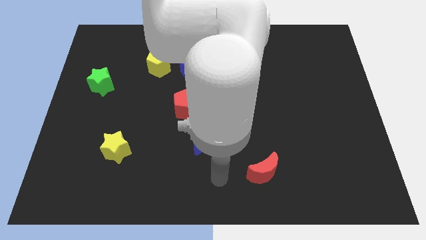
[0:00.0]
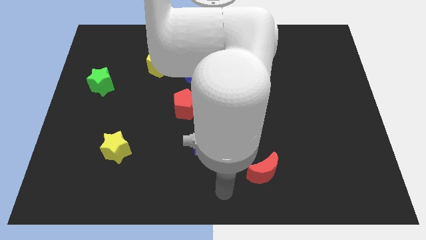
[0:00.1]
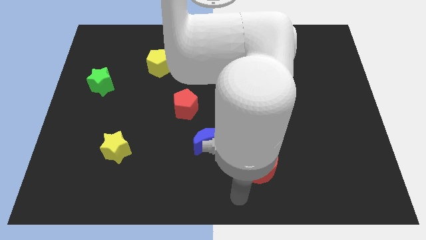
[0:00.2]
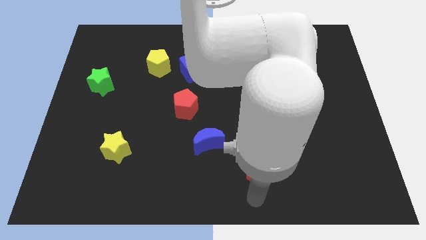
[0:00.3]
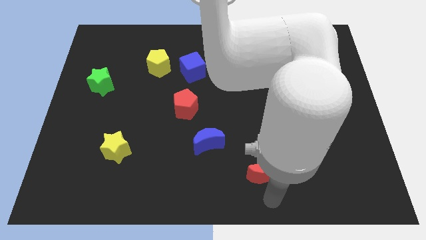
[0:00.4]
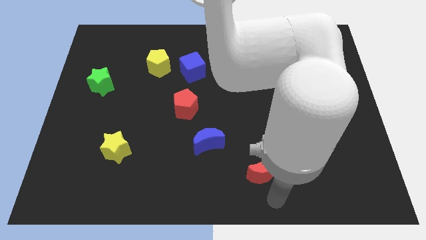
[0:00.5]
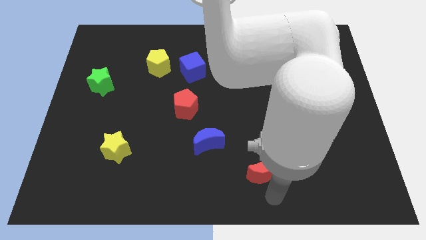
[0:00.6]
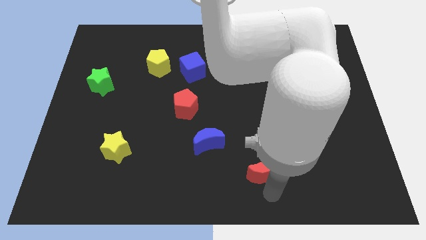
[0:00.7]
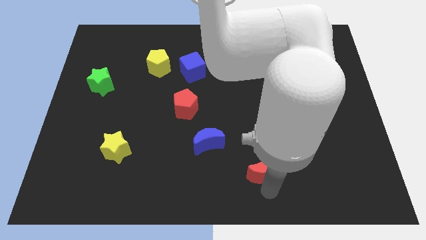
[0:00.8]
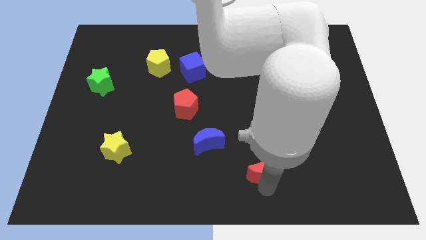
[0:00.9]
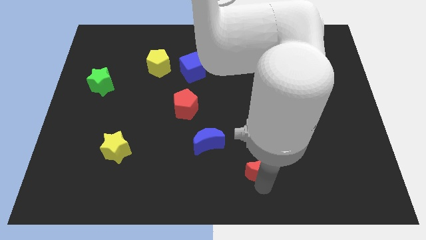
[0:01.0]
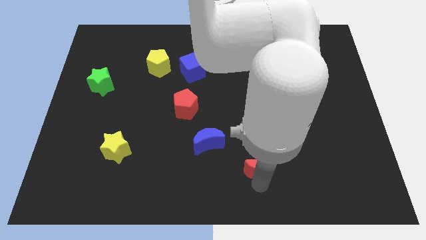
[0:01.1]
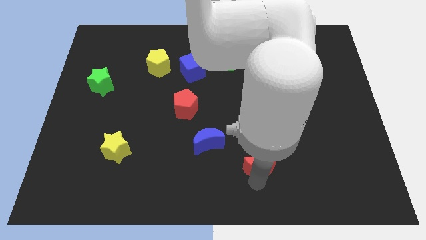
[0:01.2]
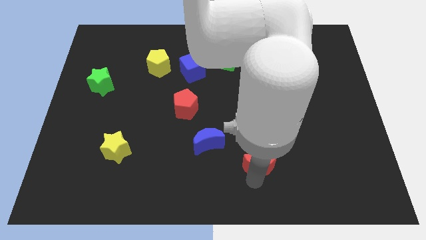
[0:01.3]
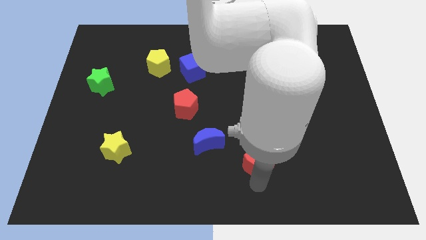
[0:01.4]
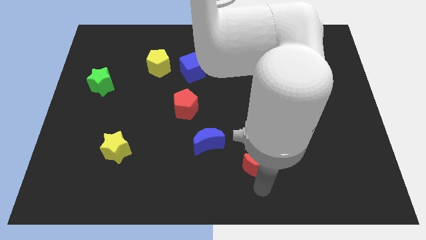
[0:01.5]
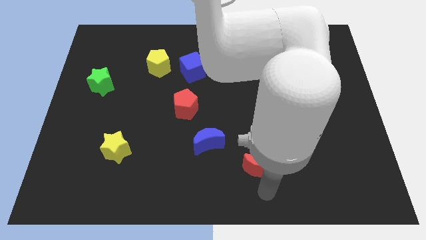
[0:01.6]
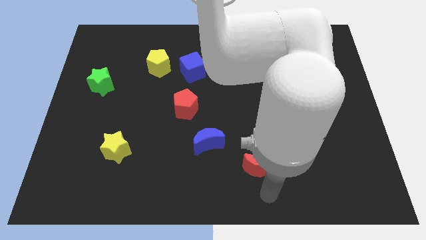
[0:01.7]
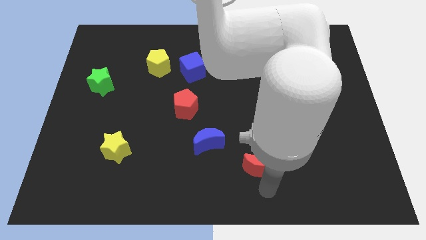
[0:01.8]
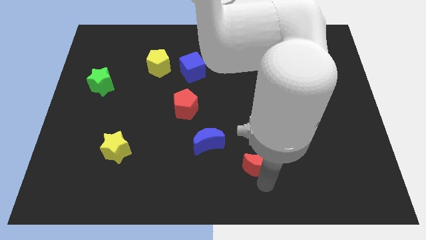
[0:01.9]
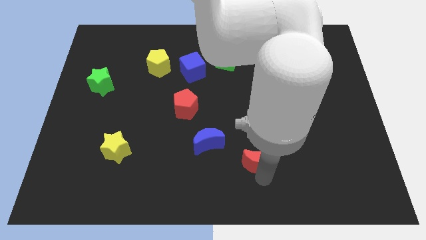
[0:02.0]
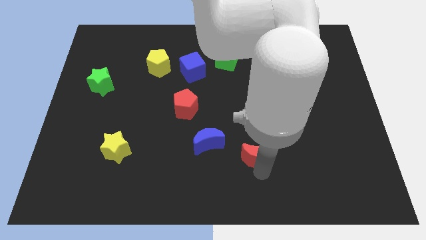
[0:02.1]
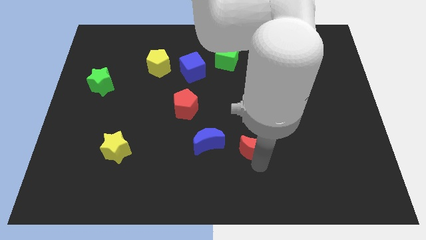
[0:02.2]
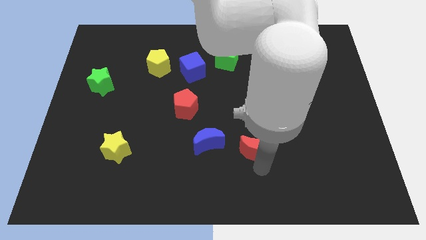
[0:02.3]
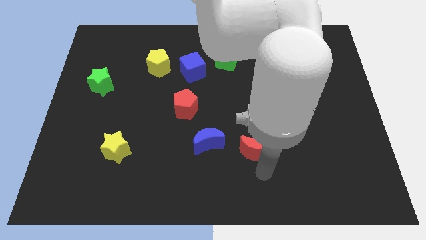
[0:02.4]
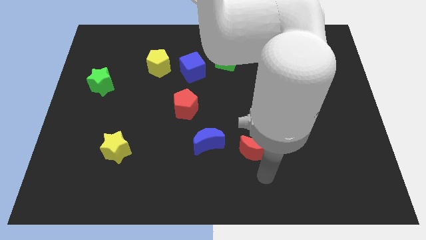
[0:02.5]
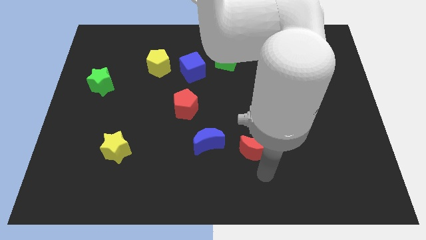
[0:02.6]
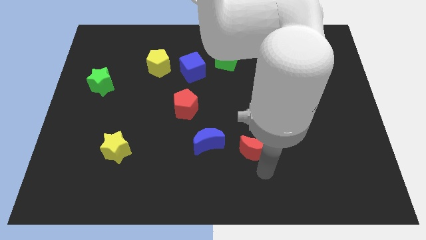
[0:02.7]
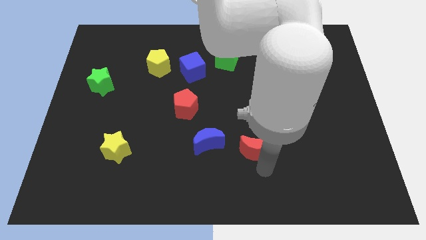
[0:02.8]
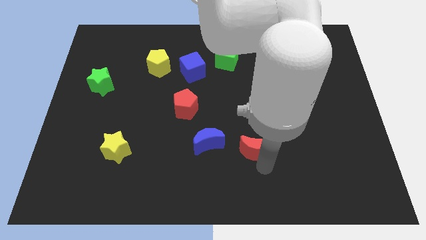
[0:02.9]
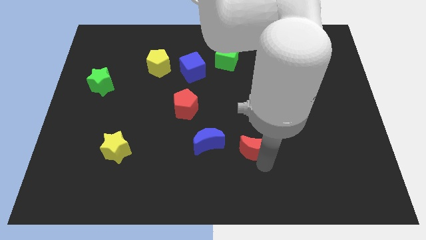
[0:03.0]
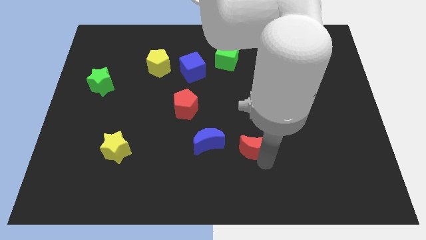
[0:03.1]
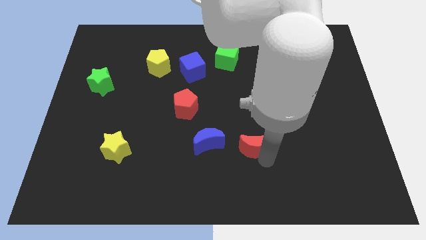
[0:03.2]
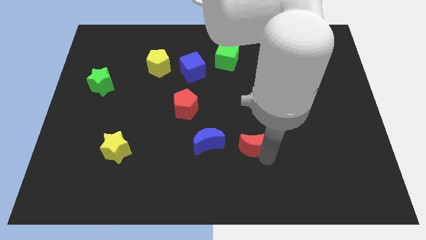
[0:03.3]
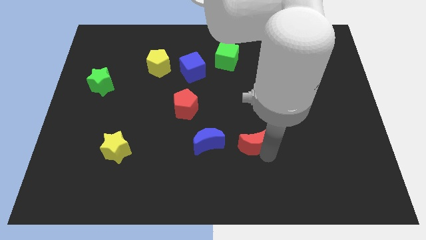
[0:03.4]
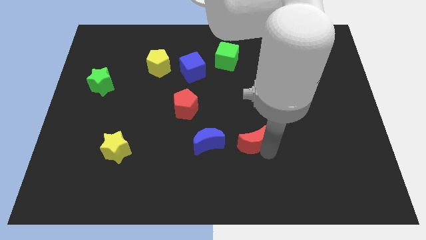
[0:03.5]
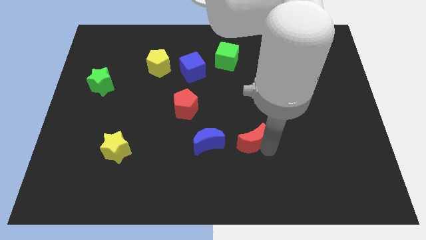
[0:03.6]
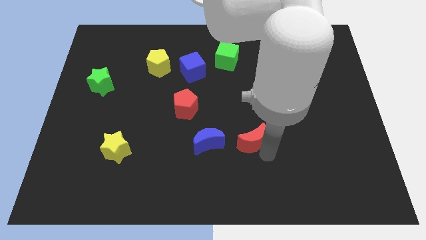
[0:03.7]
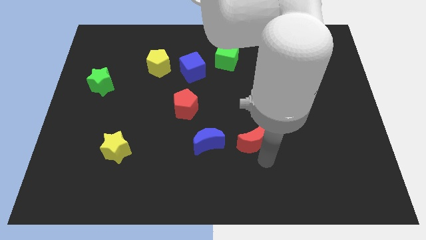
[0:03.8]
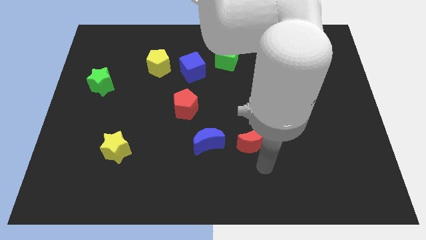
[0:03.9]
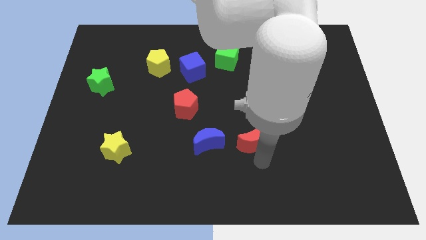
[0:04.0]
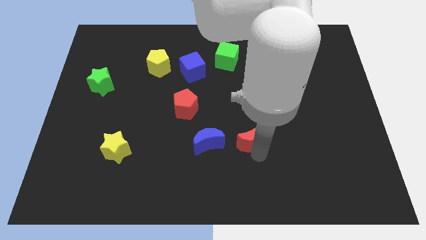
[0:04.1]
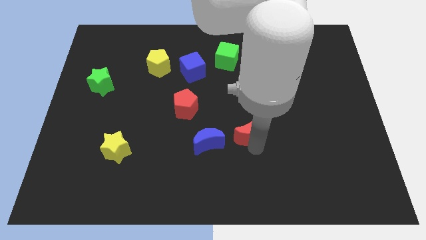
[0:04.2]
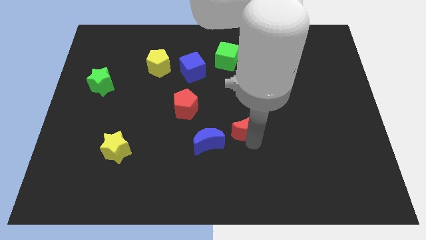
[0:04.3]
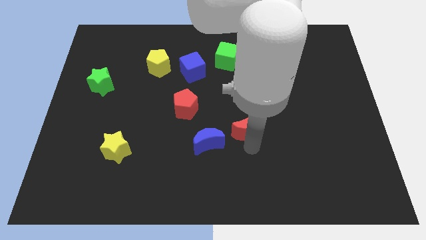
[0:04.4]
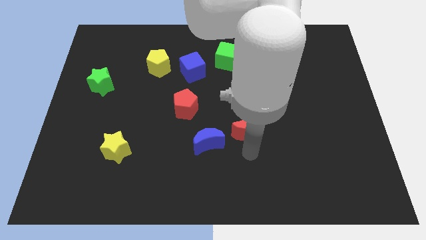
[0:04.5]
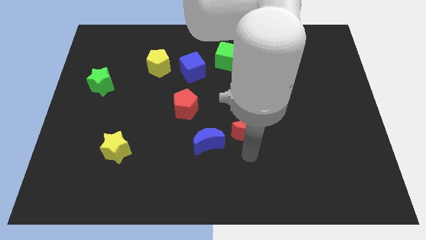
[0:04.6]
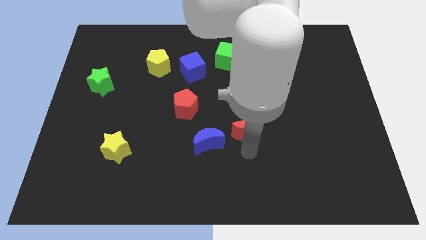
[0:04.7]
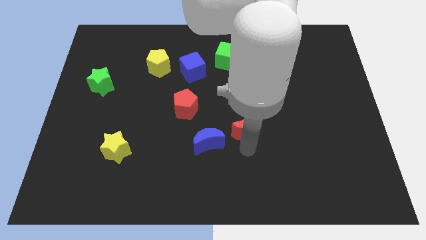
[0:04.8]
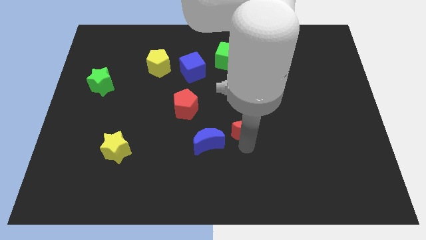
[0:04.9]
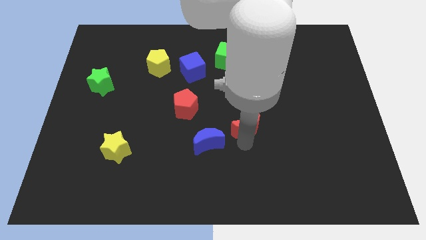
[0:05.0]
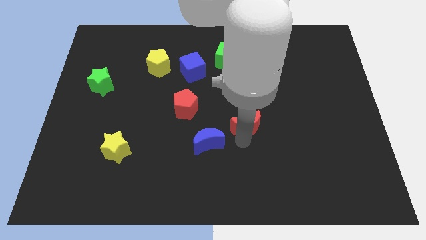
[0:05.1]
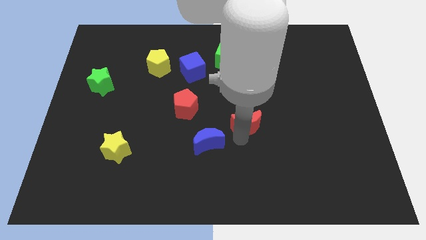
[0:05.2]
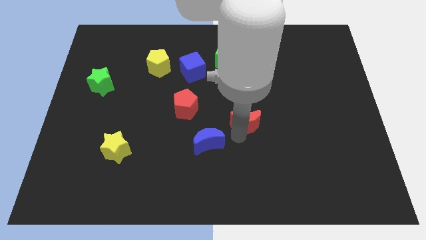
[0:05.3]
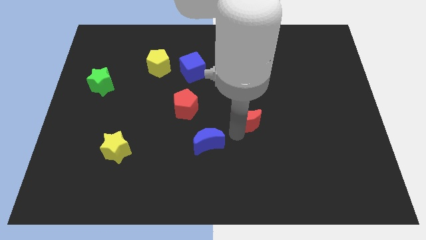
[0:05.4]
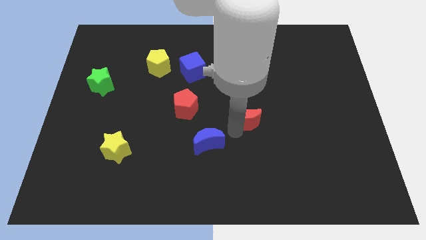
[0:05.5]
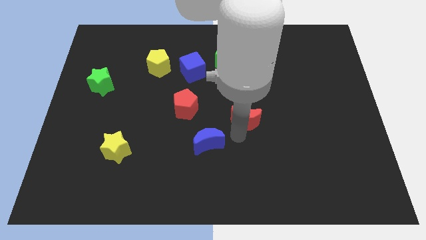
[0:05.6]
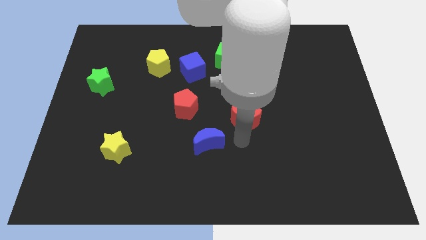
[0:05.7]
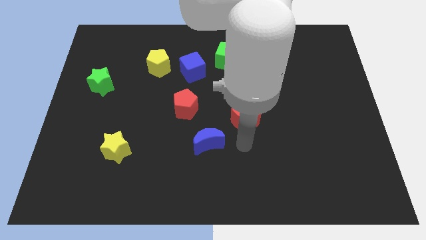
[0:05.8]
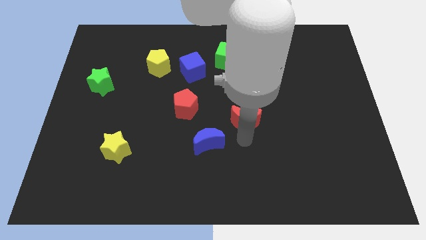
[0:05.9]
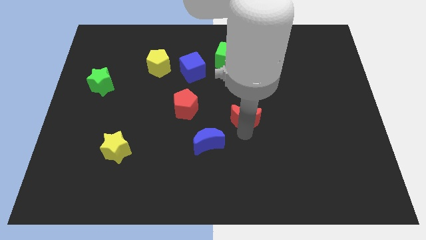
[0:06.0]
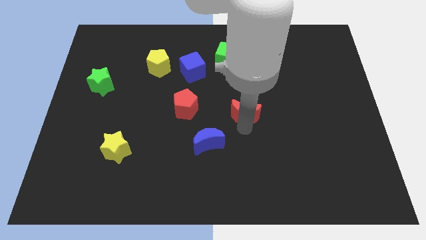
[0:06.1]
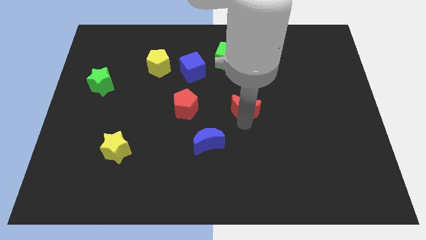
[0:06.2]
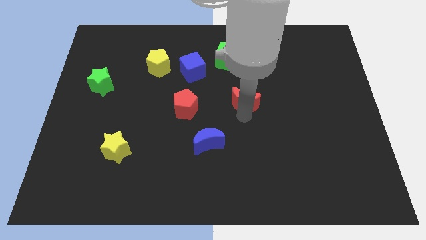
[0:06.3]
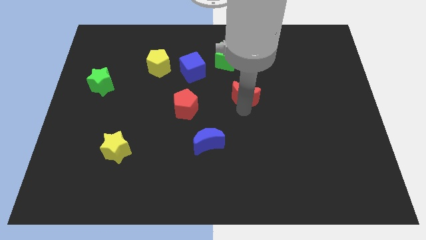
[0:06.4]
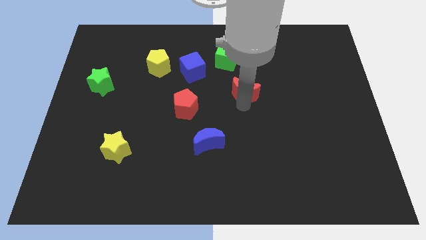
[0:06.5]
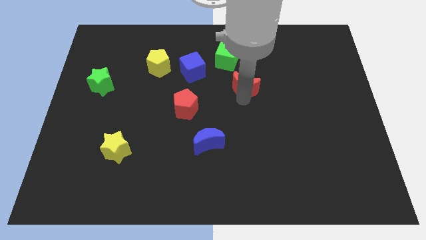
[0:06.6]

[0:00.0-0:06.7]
put the red moon diagonally down and to the right of the green cube
